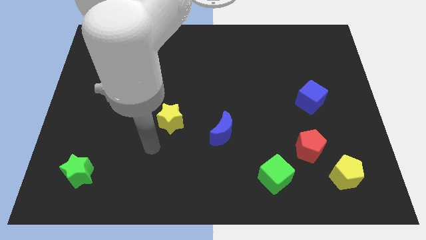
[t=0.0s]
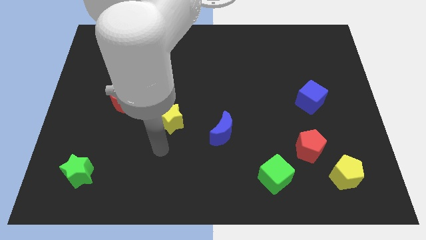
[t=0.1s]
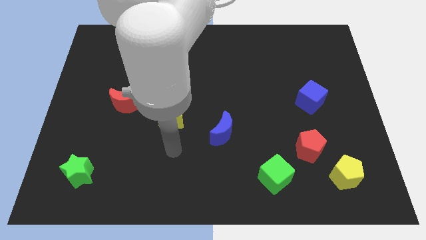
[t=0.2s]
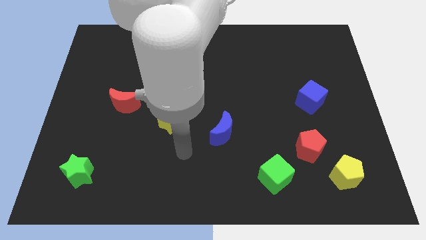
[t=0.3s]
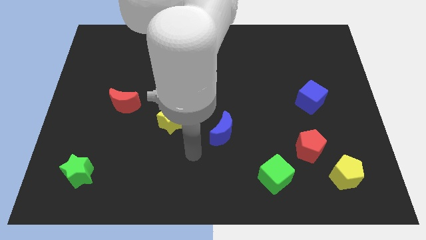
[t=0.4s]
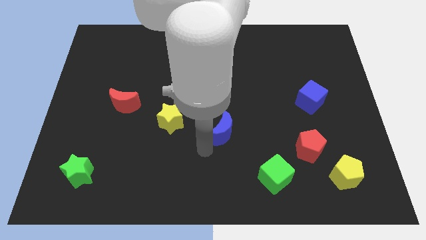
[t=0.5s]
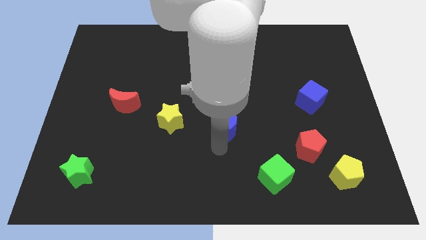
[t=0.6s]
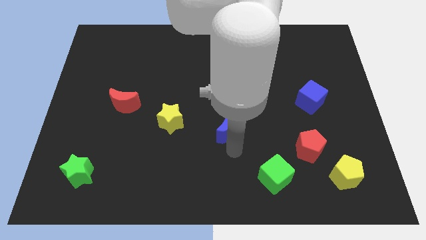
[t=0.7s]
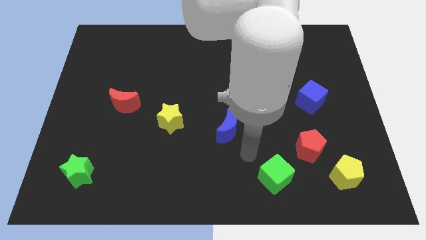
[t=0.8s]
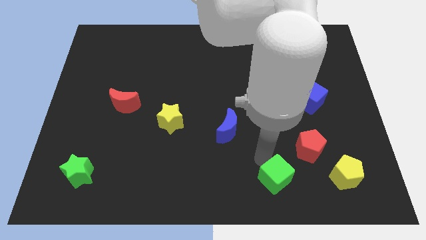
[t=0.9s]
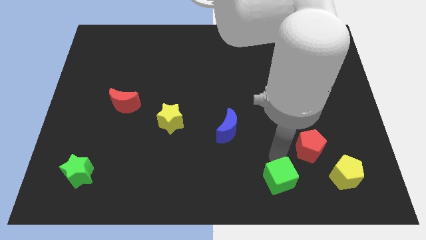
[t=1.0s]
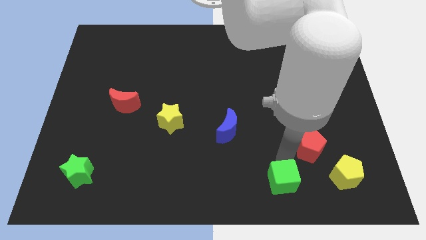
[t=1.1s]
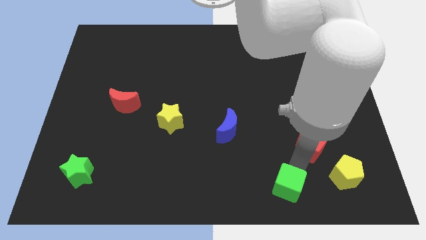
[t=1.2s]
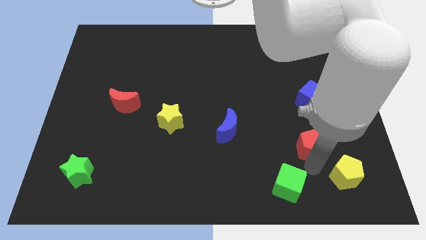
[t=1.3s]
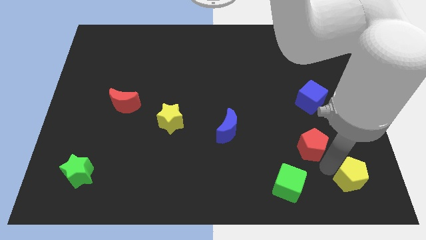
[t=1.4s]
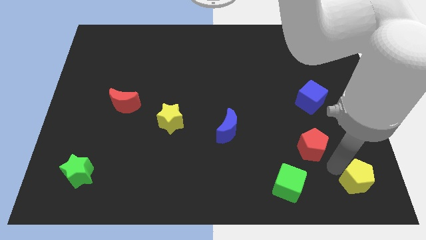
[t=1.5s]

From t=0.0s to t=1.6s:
move the red pentagon away from the yellow pentagon

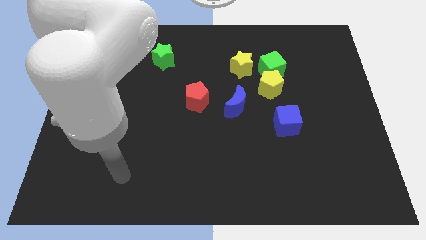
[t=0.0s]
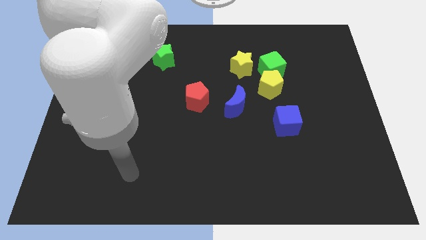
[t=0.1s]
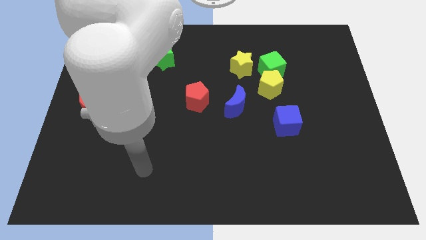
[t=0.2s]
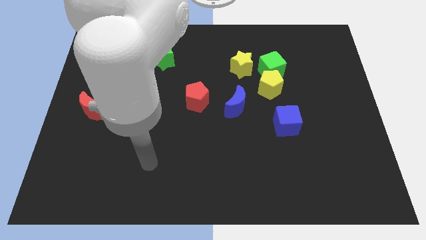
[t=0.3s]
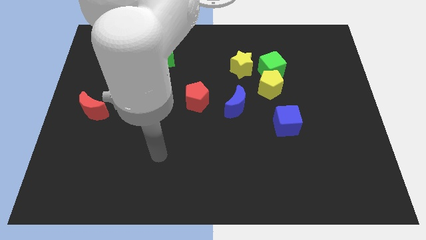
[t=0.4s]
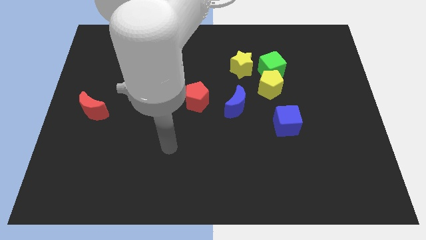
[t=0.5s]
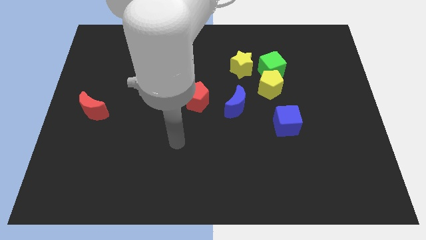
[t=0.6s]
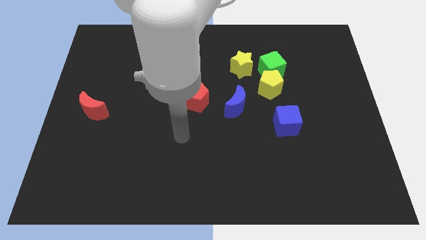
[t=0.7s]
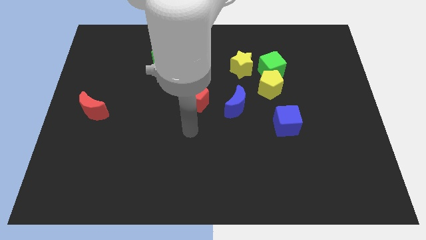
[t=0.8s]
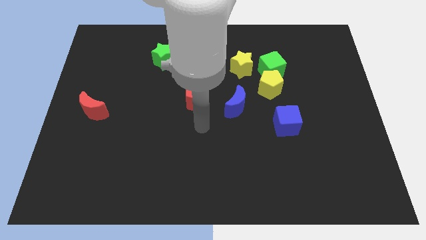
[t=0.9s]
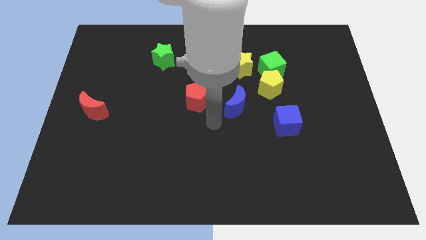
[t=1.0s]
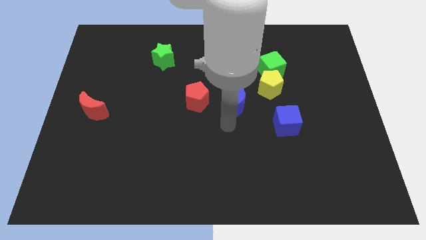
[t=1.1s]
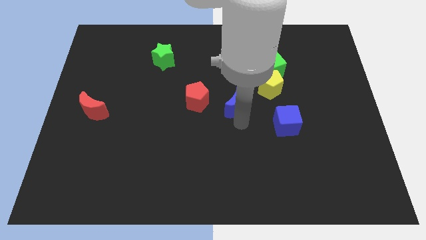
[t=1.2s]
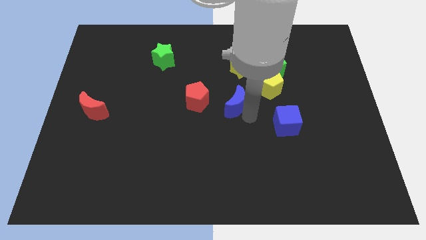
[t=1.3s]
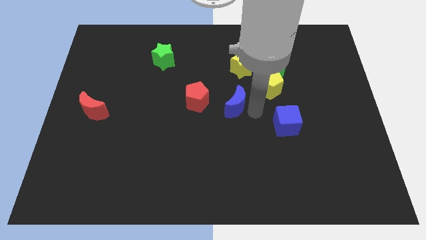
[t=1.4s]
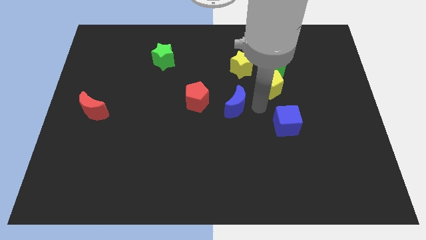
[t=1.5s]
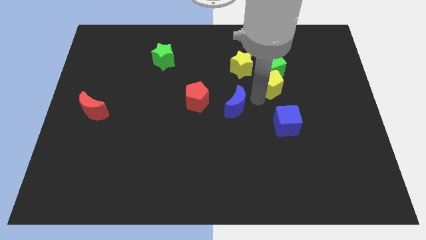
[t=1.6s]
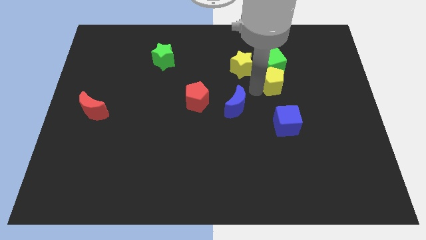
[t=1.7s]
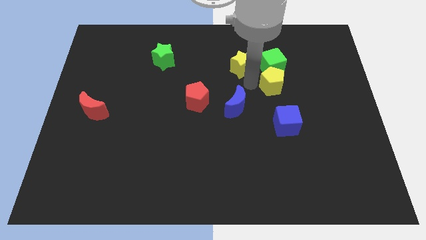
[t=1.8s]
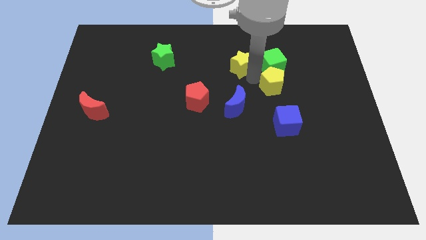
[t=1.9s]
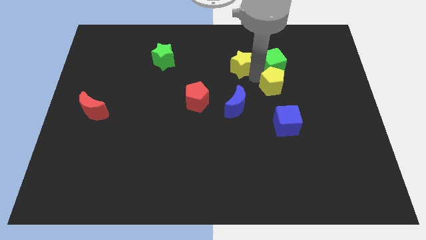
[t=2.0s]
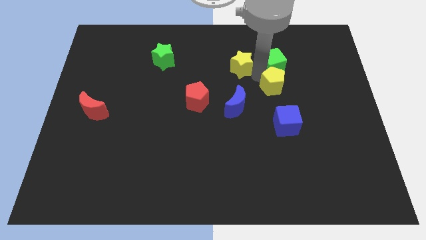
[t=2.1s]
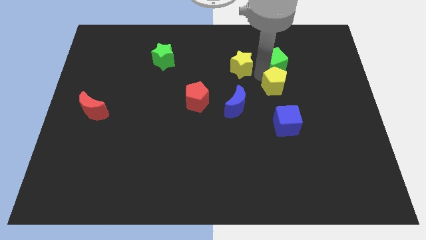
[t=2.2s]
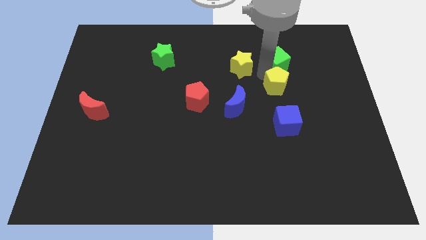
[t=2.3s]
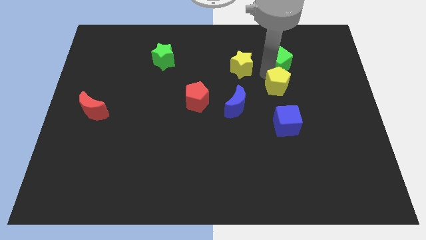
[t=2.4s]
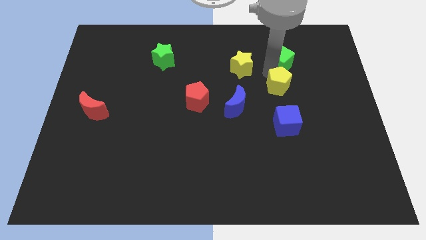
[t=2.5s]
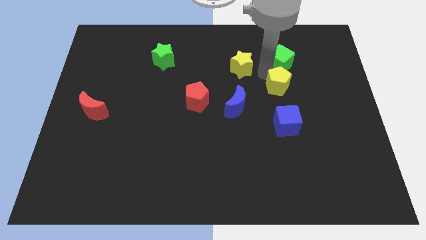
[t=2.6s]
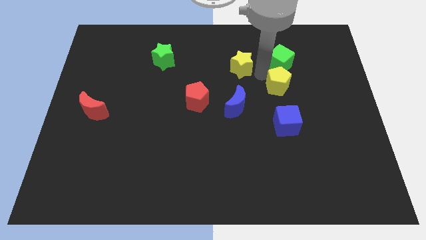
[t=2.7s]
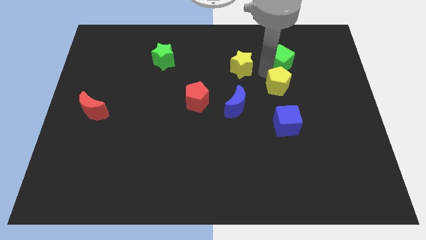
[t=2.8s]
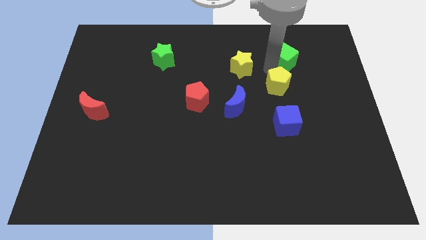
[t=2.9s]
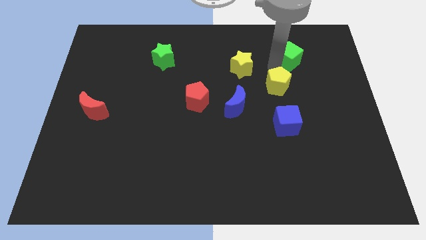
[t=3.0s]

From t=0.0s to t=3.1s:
move the green cube away from the yellow pentagon and yellow star

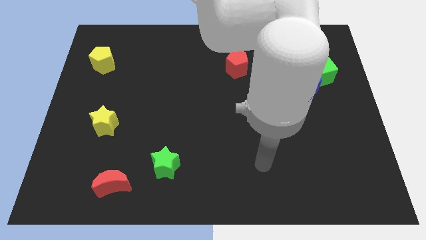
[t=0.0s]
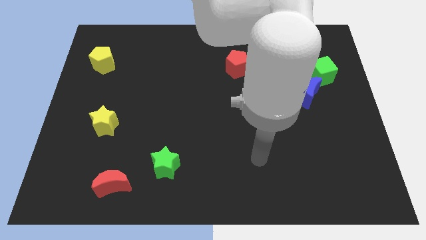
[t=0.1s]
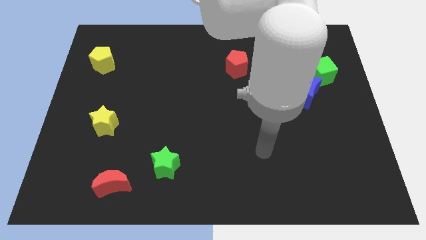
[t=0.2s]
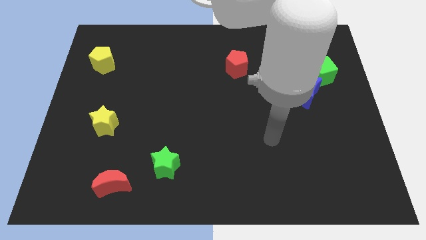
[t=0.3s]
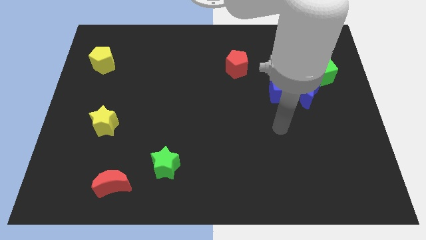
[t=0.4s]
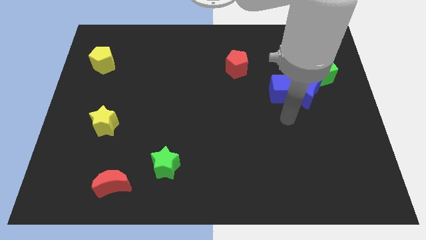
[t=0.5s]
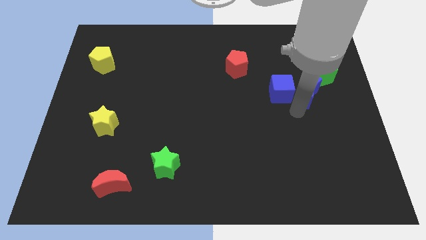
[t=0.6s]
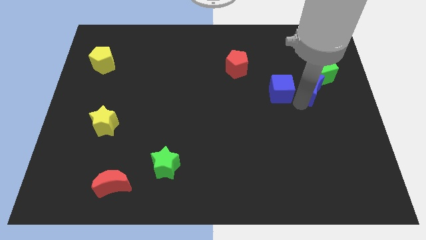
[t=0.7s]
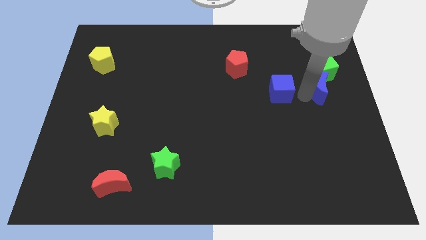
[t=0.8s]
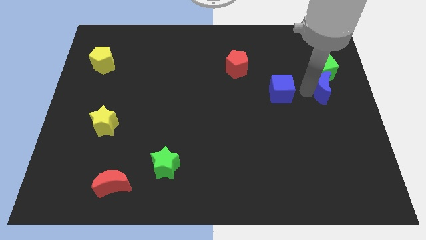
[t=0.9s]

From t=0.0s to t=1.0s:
separate the blue cube from the blue moon

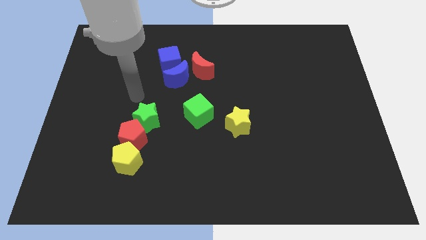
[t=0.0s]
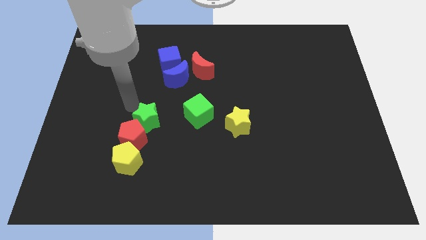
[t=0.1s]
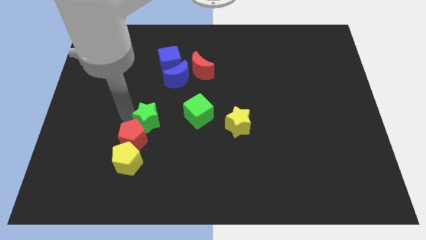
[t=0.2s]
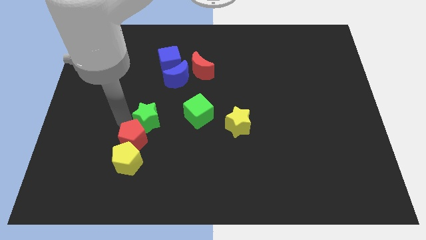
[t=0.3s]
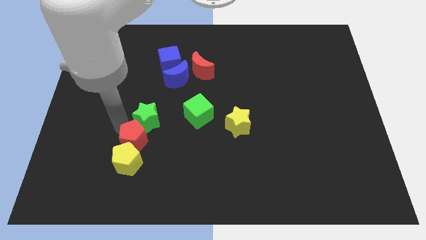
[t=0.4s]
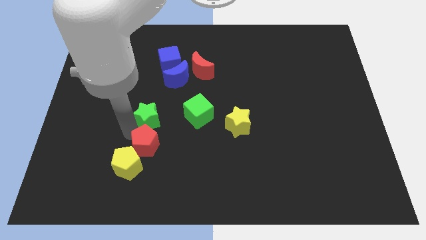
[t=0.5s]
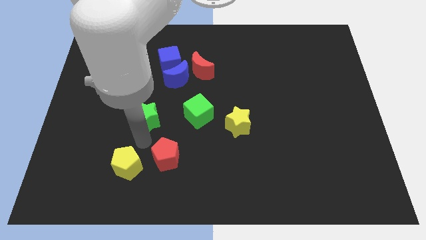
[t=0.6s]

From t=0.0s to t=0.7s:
move the green star away from the red pentagon

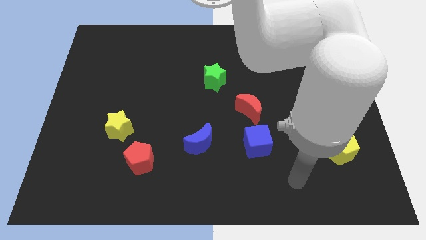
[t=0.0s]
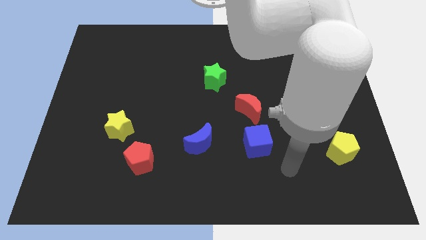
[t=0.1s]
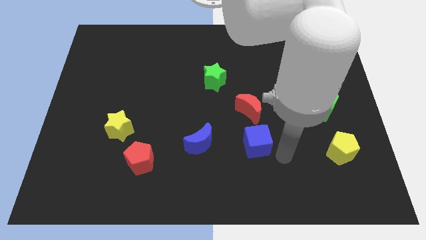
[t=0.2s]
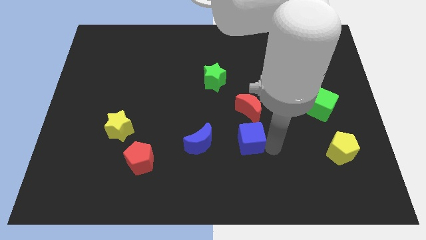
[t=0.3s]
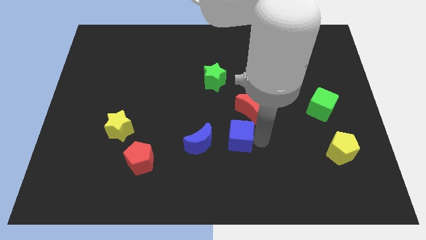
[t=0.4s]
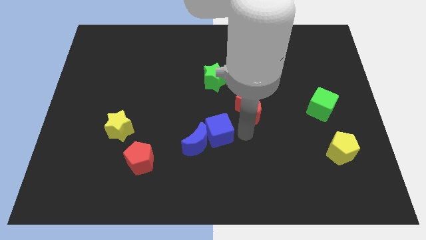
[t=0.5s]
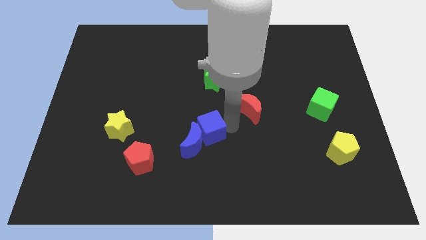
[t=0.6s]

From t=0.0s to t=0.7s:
move the red moon away from the blue cube

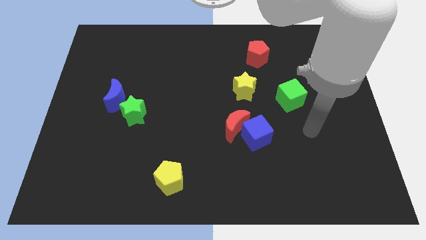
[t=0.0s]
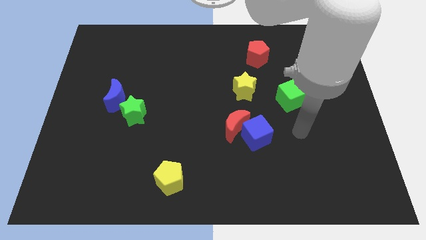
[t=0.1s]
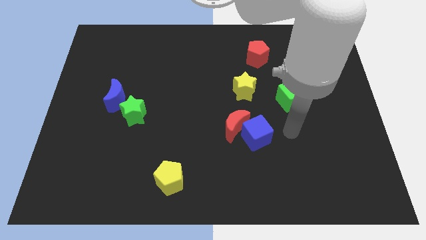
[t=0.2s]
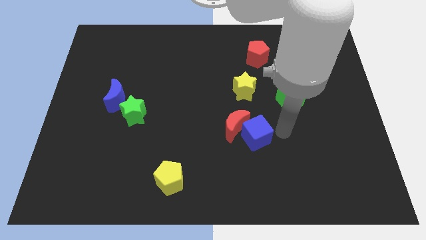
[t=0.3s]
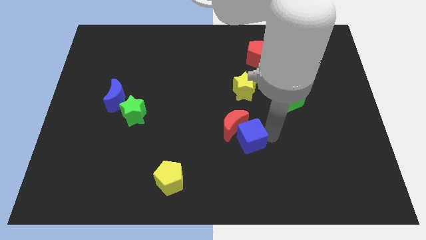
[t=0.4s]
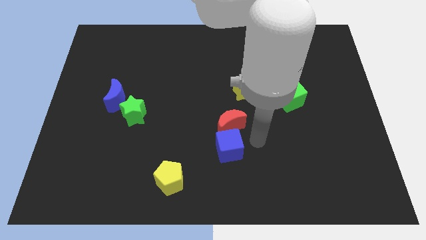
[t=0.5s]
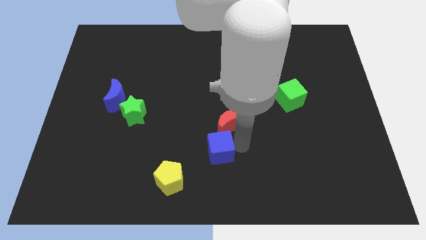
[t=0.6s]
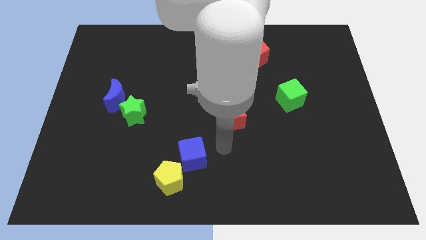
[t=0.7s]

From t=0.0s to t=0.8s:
separate the red moon from the blue cube

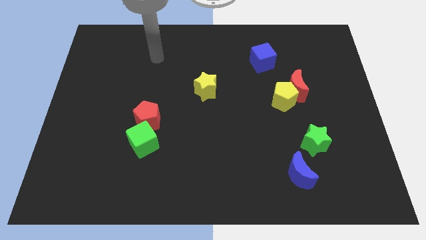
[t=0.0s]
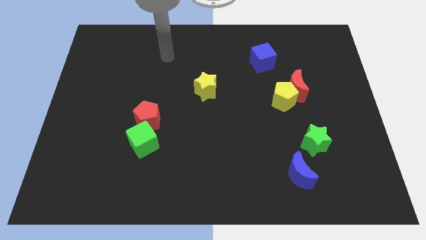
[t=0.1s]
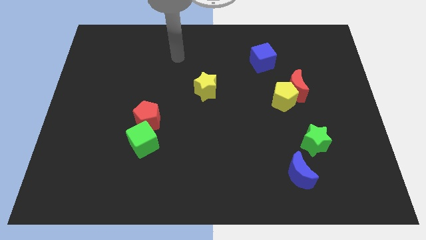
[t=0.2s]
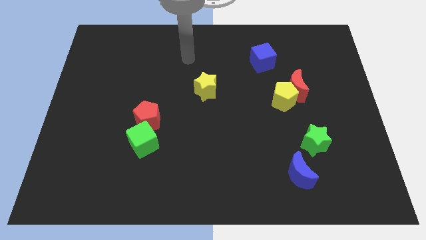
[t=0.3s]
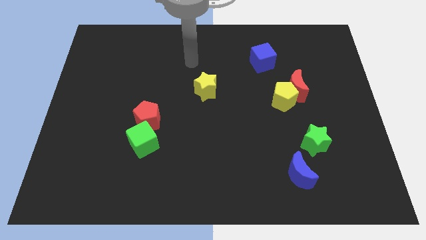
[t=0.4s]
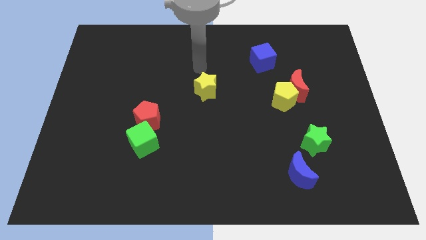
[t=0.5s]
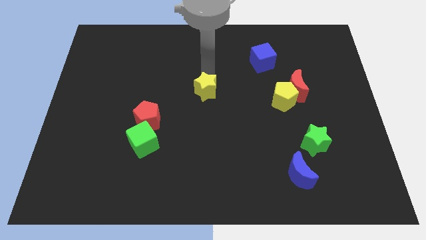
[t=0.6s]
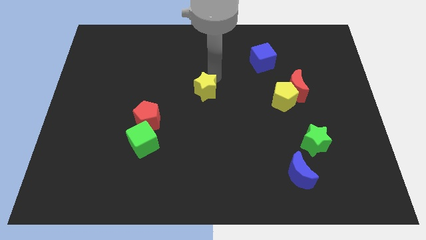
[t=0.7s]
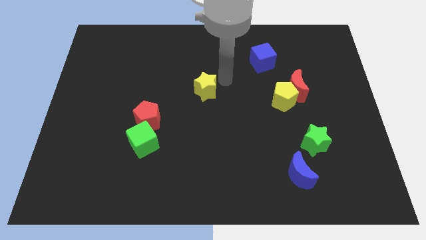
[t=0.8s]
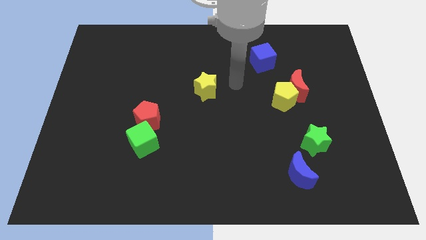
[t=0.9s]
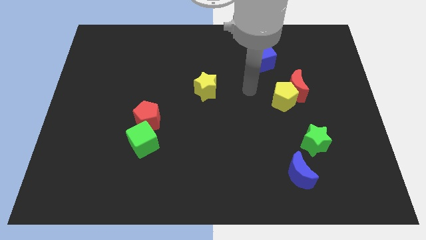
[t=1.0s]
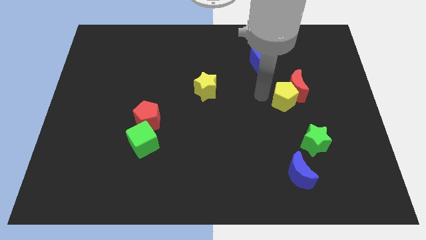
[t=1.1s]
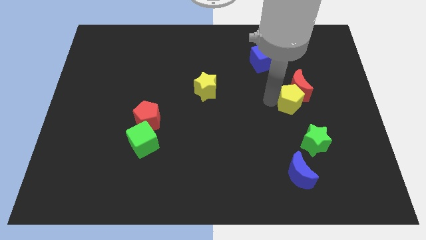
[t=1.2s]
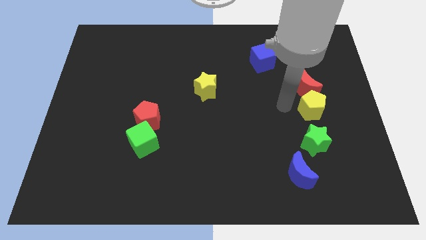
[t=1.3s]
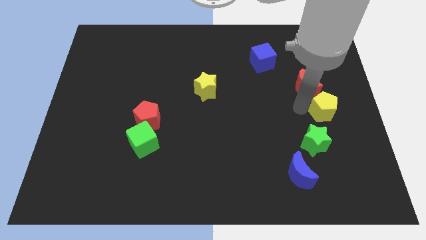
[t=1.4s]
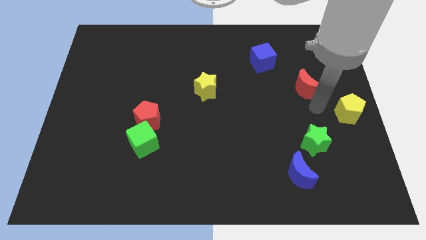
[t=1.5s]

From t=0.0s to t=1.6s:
pull the red moon apart from the yellow pentagon
